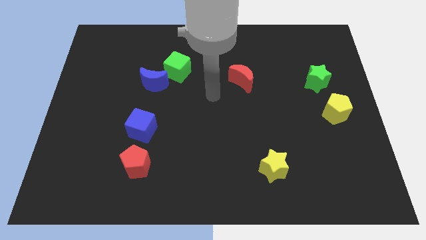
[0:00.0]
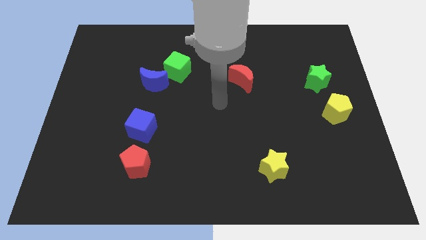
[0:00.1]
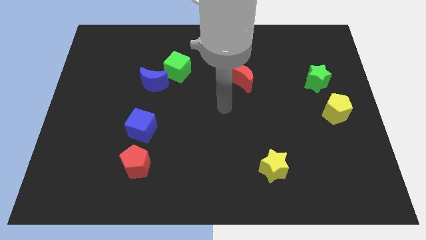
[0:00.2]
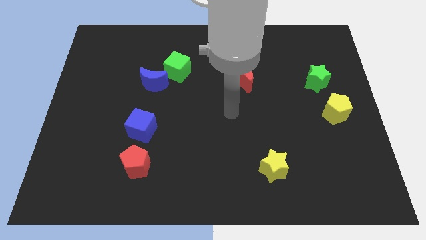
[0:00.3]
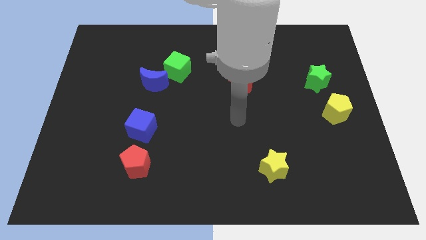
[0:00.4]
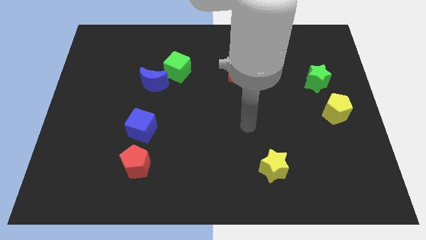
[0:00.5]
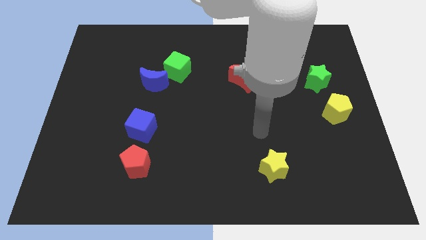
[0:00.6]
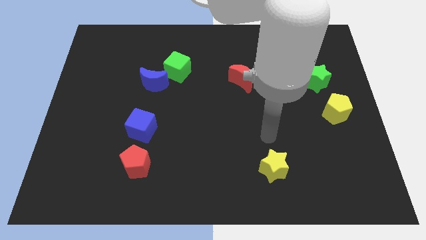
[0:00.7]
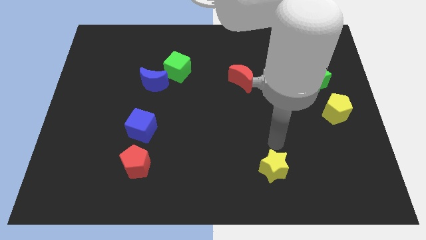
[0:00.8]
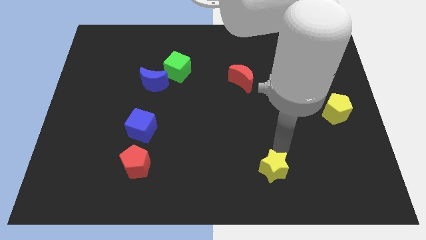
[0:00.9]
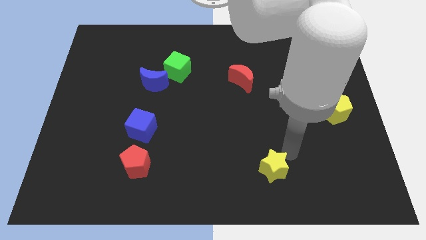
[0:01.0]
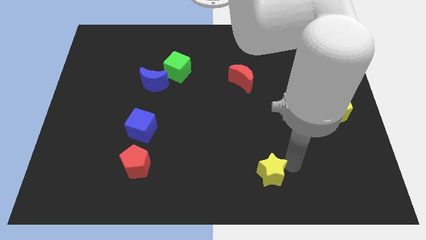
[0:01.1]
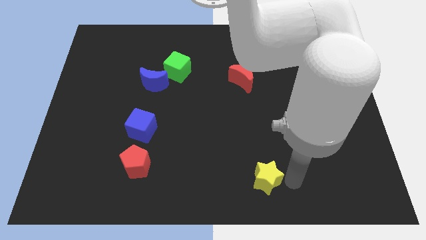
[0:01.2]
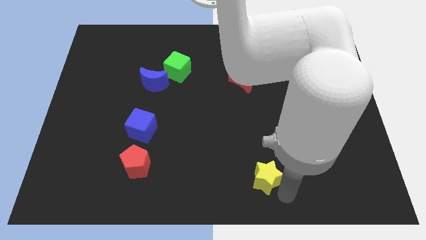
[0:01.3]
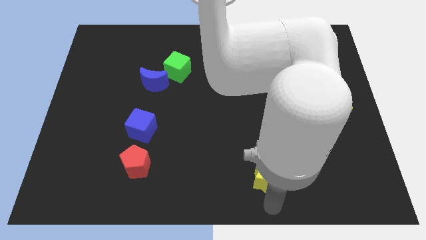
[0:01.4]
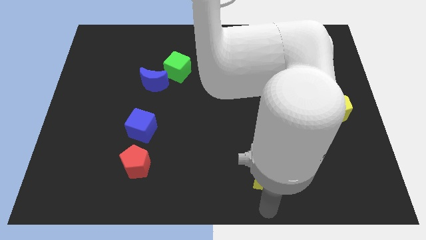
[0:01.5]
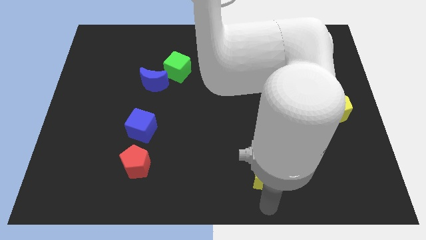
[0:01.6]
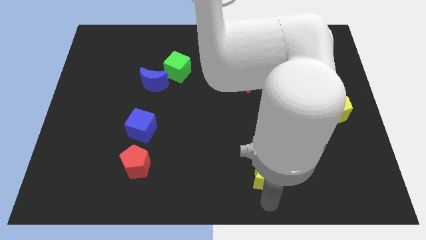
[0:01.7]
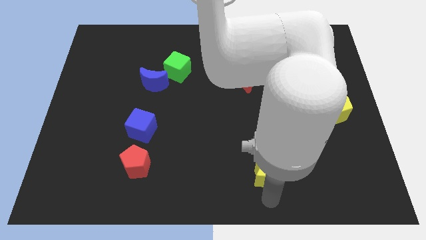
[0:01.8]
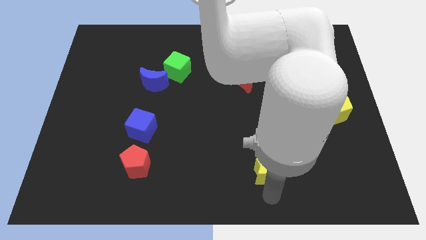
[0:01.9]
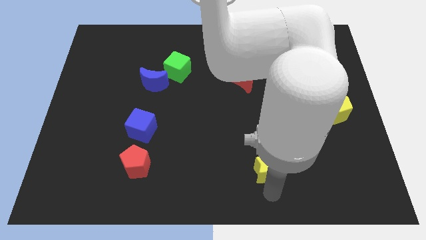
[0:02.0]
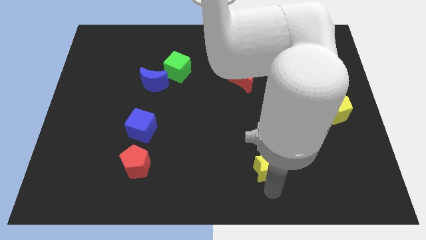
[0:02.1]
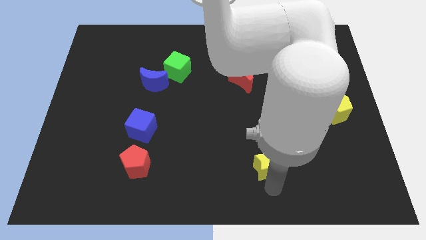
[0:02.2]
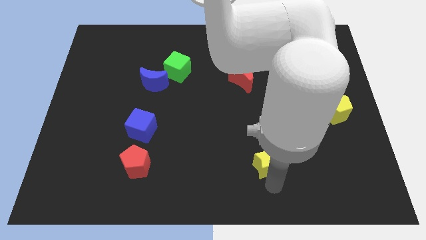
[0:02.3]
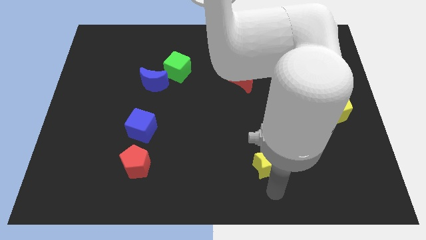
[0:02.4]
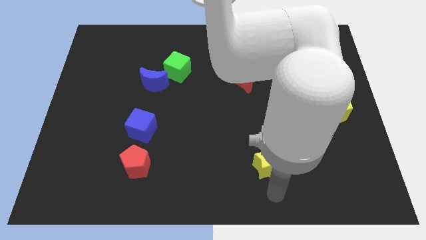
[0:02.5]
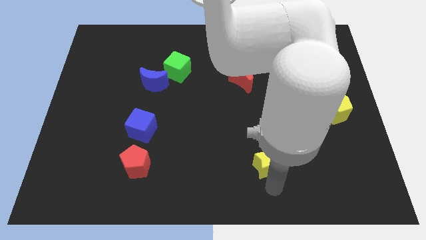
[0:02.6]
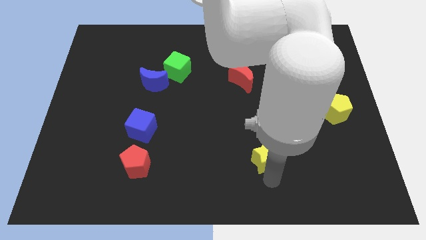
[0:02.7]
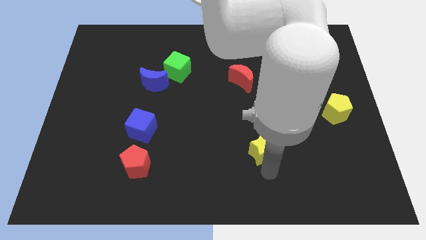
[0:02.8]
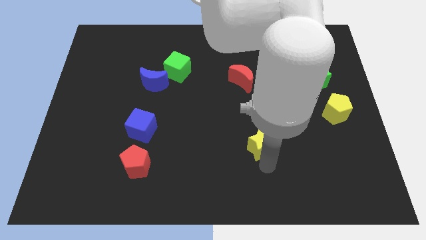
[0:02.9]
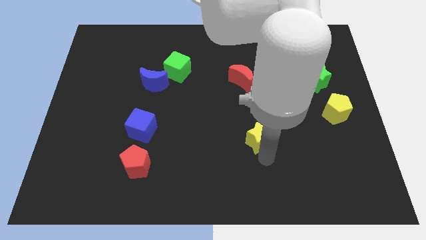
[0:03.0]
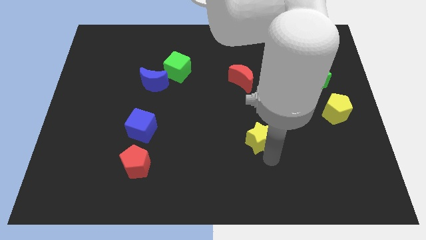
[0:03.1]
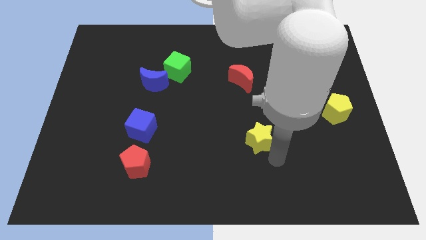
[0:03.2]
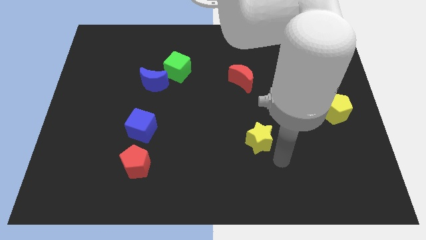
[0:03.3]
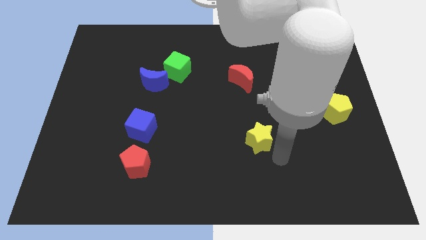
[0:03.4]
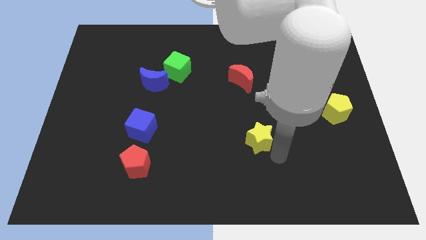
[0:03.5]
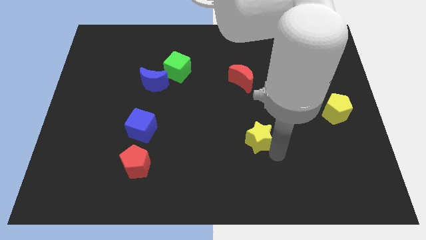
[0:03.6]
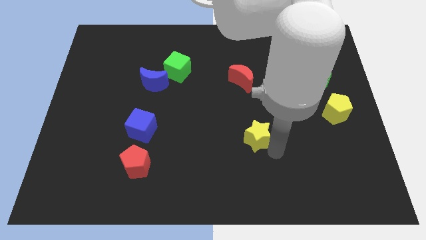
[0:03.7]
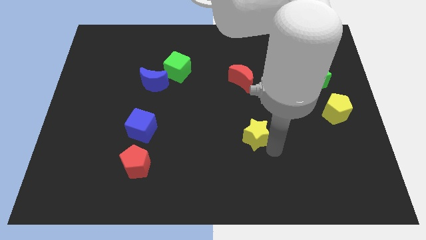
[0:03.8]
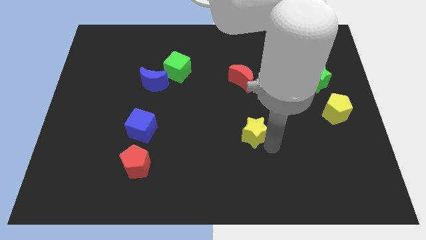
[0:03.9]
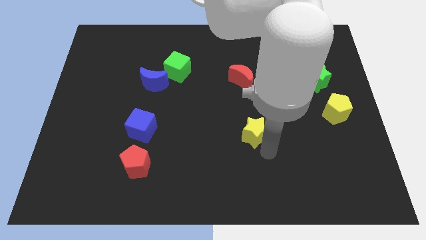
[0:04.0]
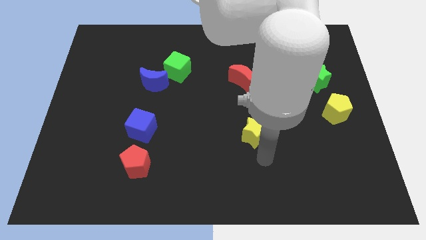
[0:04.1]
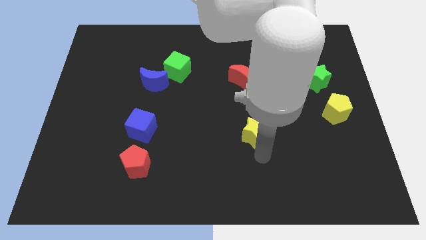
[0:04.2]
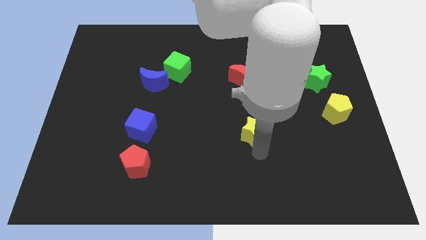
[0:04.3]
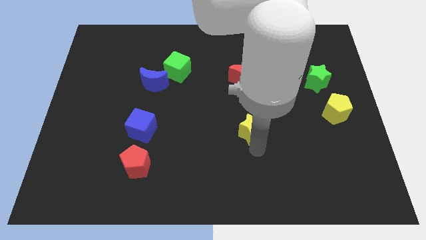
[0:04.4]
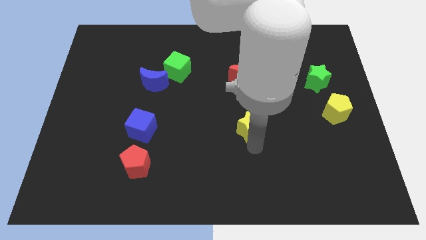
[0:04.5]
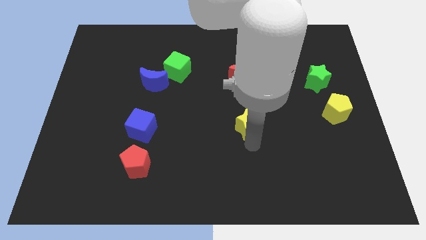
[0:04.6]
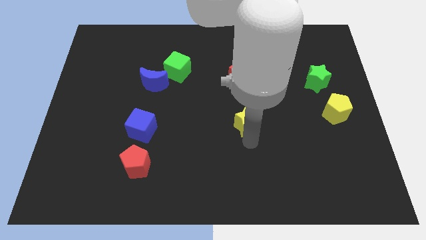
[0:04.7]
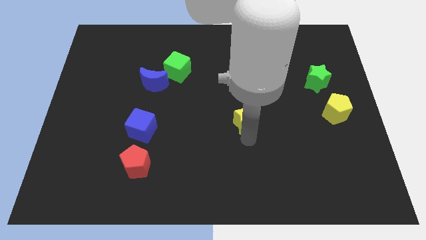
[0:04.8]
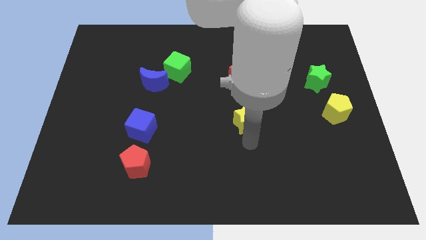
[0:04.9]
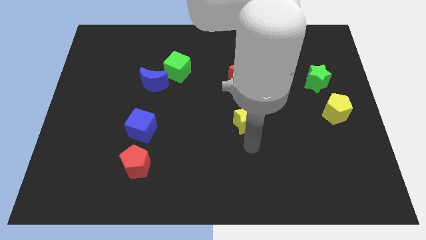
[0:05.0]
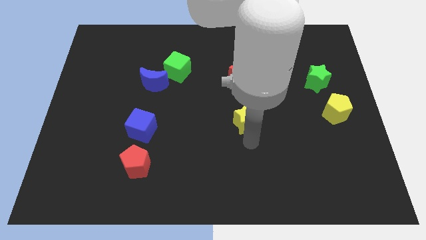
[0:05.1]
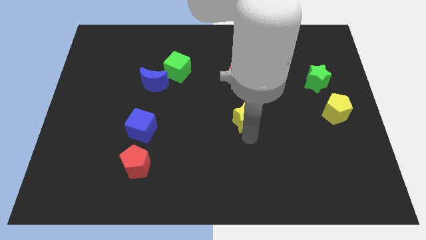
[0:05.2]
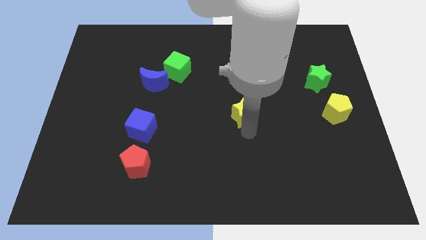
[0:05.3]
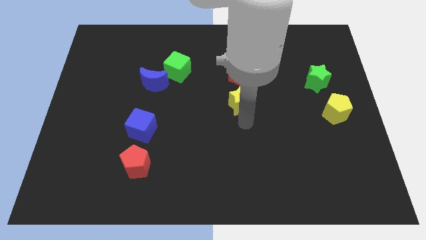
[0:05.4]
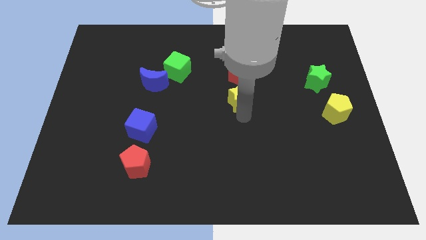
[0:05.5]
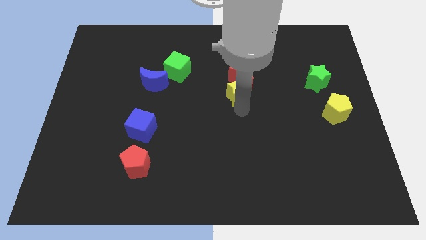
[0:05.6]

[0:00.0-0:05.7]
move the yellow star to the red moon

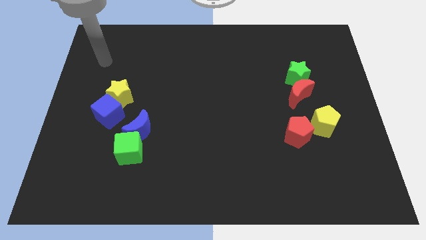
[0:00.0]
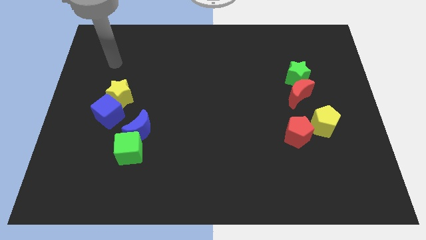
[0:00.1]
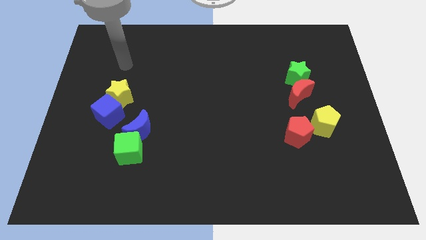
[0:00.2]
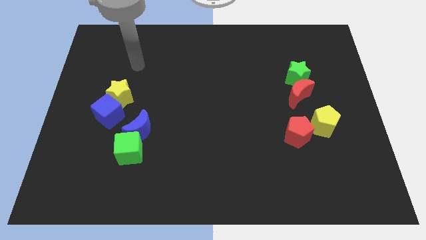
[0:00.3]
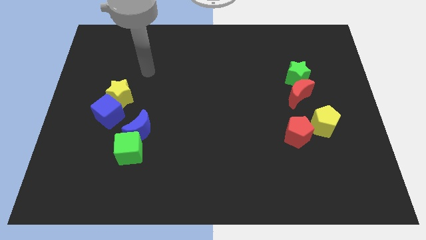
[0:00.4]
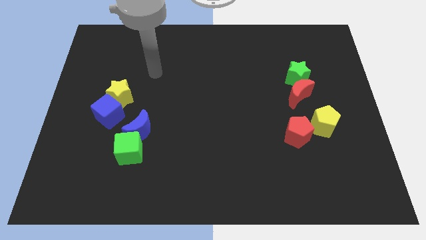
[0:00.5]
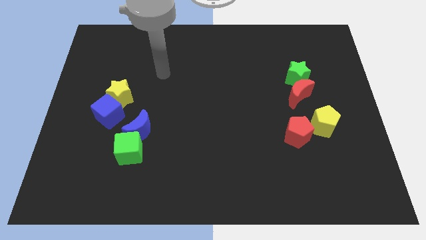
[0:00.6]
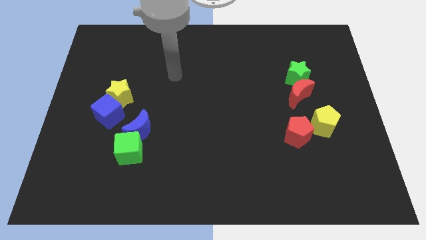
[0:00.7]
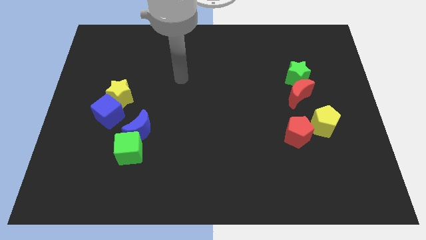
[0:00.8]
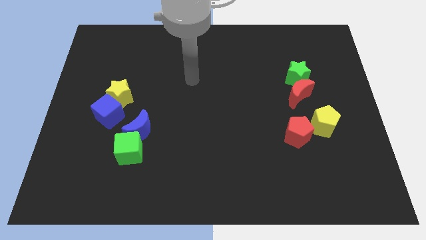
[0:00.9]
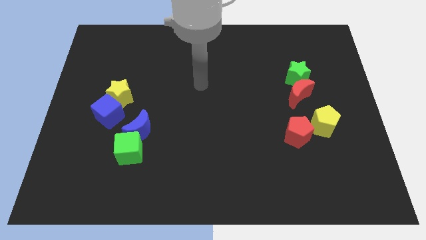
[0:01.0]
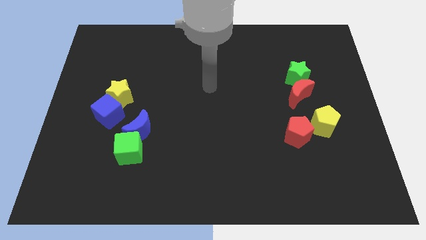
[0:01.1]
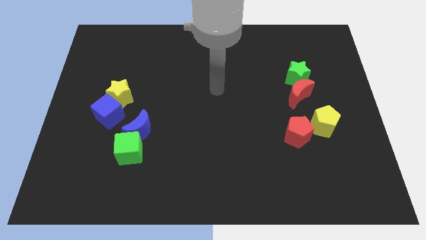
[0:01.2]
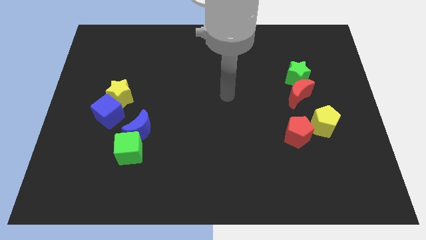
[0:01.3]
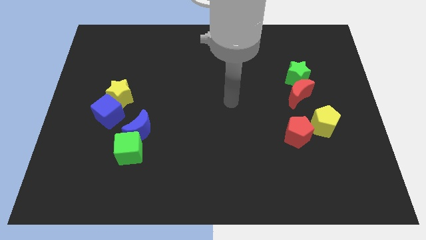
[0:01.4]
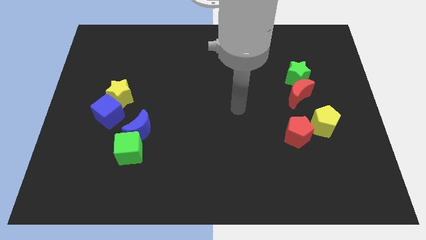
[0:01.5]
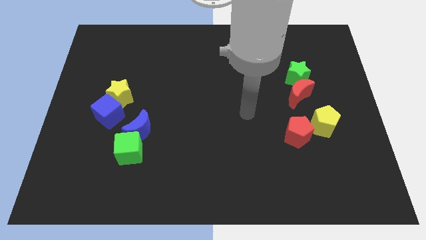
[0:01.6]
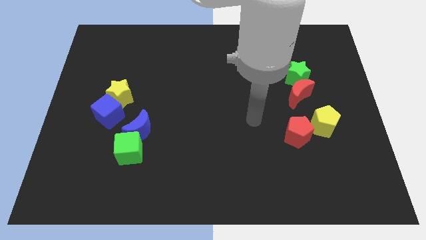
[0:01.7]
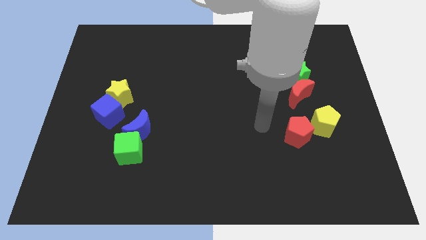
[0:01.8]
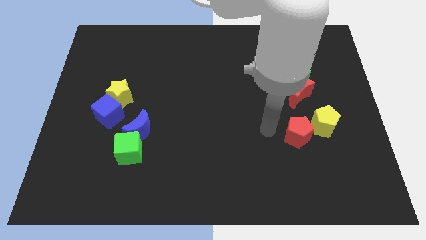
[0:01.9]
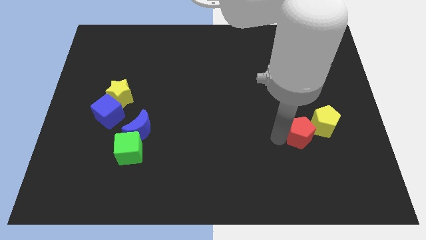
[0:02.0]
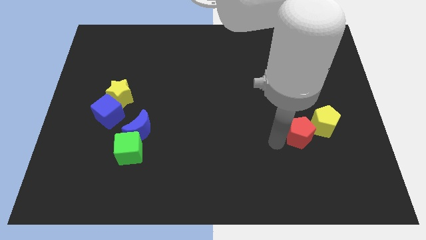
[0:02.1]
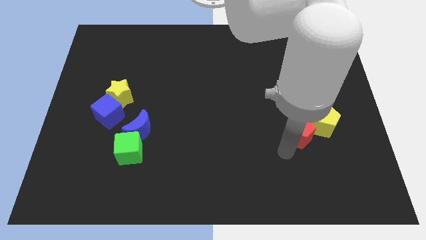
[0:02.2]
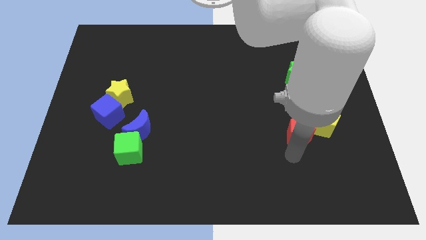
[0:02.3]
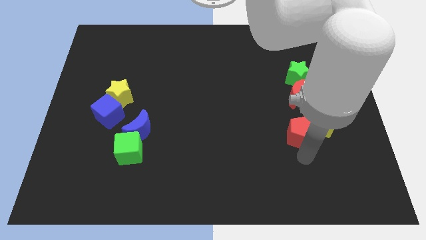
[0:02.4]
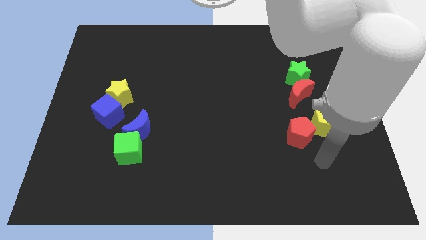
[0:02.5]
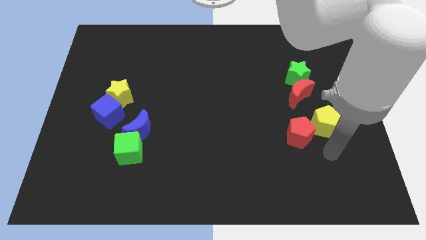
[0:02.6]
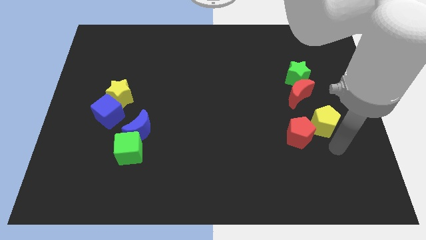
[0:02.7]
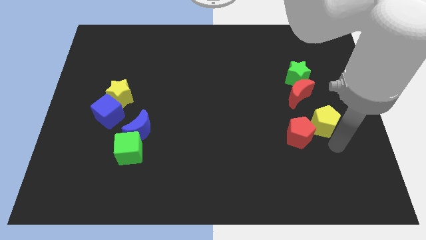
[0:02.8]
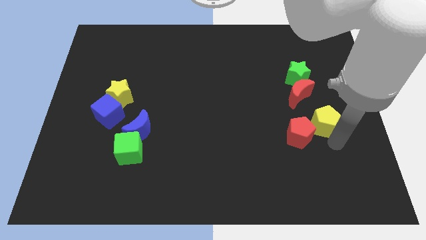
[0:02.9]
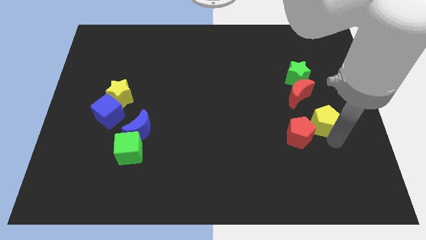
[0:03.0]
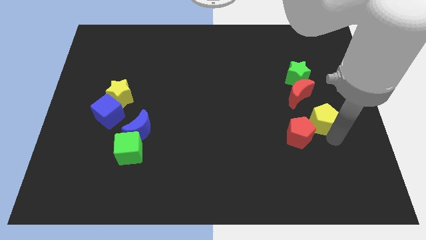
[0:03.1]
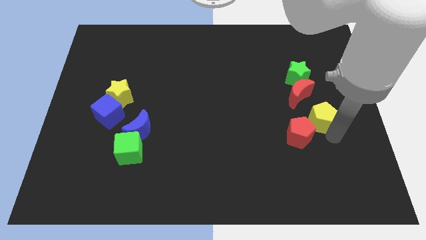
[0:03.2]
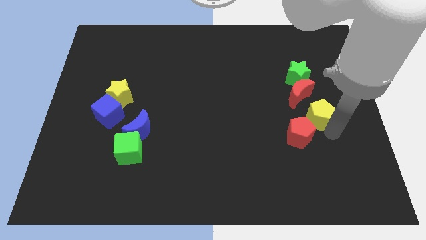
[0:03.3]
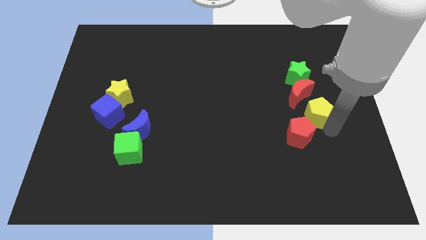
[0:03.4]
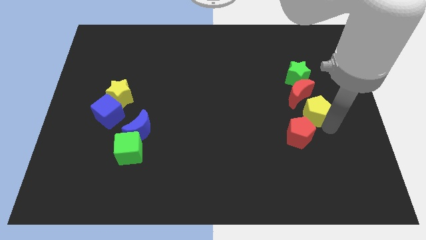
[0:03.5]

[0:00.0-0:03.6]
move the yellow pentagon towards the red moon
